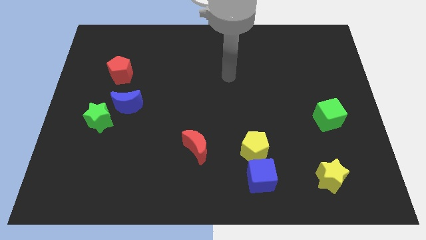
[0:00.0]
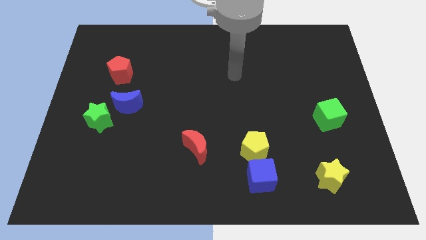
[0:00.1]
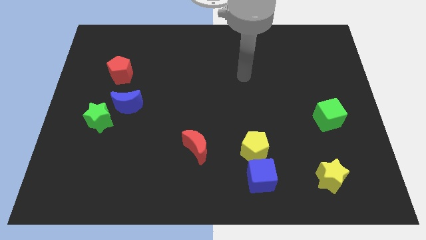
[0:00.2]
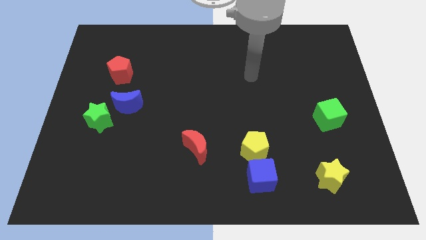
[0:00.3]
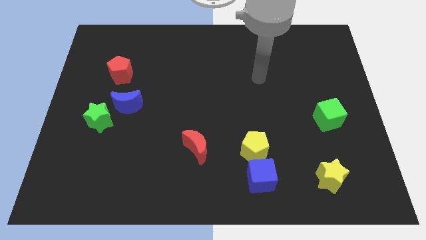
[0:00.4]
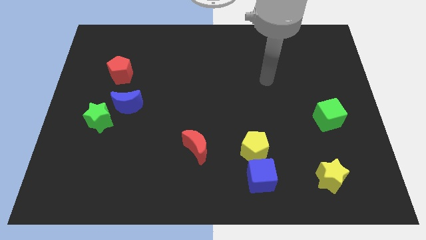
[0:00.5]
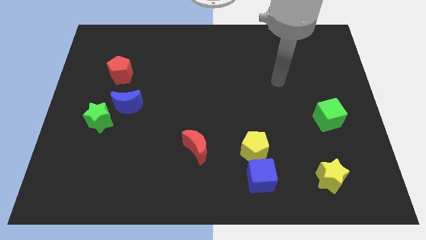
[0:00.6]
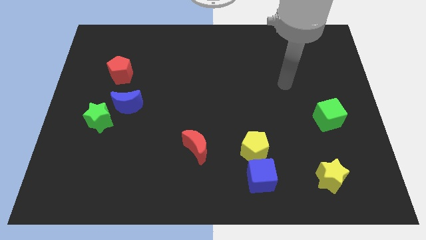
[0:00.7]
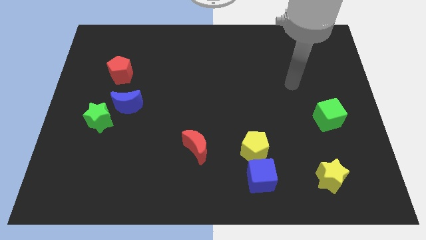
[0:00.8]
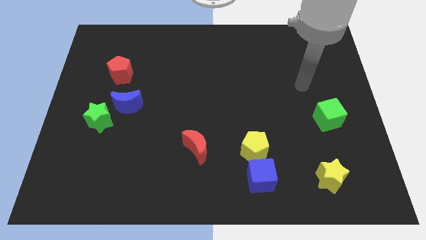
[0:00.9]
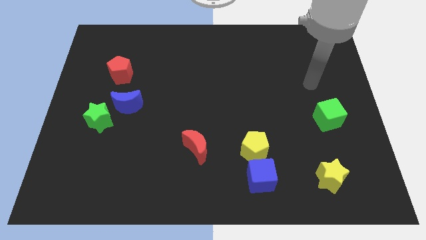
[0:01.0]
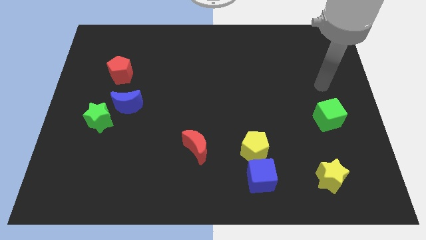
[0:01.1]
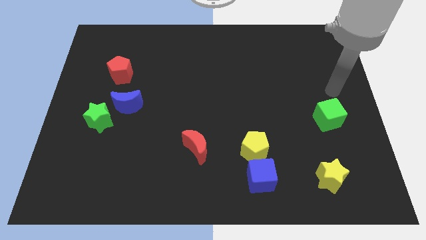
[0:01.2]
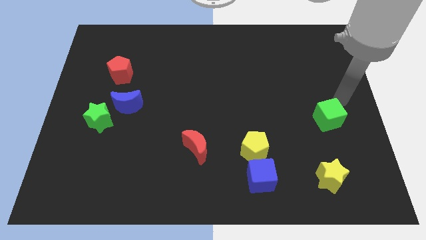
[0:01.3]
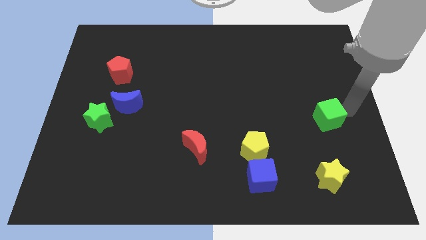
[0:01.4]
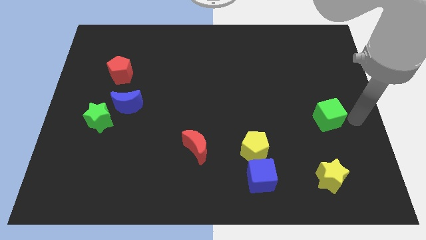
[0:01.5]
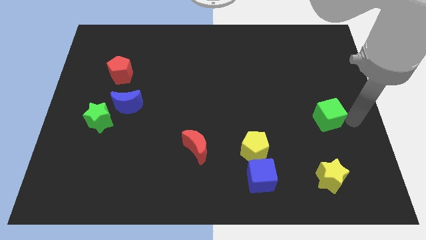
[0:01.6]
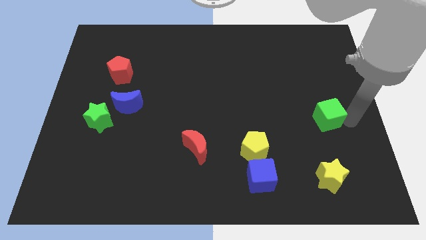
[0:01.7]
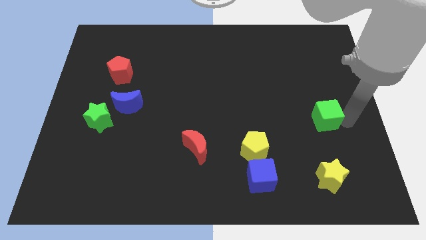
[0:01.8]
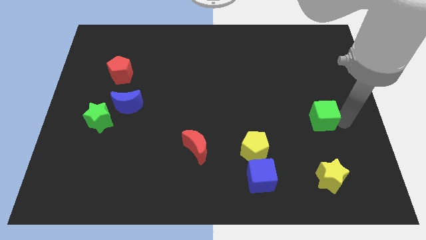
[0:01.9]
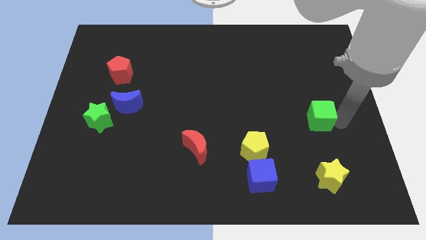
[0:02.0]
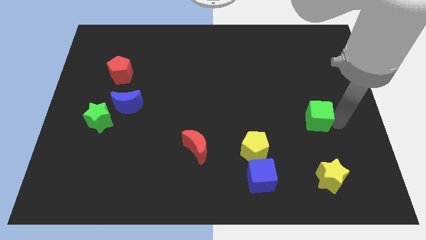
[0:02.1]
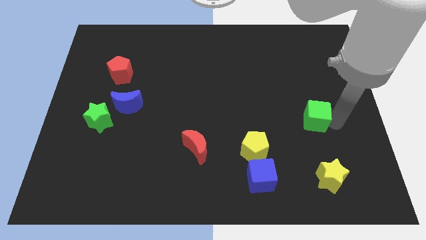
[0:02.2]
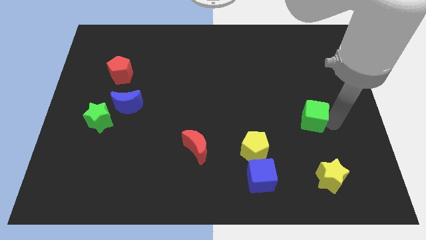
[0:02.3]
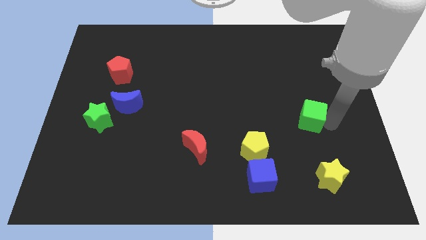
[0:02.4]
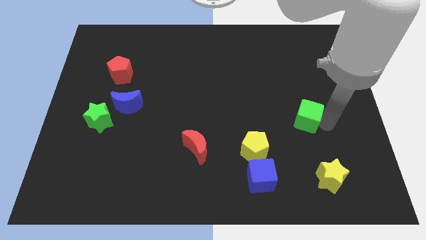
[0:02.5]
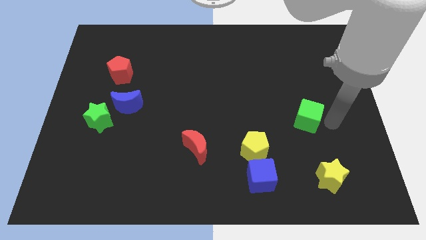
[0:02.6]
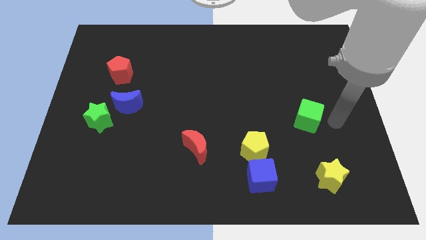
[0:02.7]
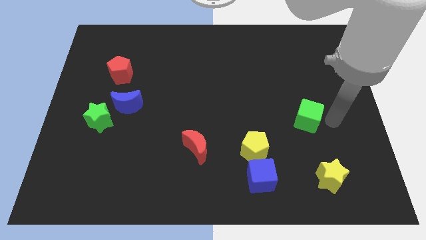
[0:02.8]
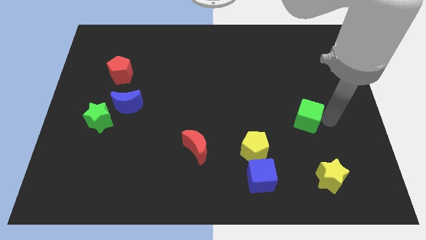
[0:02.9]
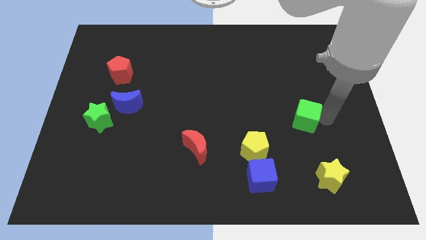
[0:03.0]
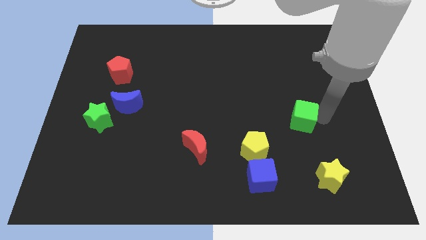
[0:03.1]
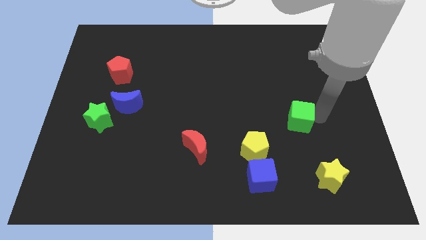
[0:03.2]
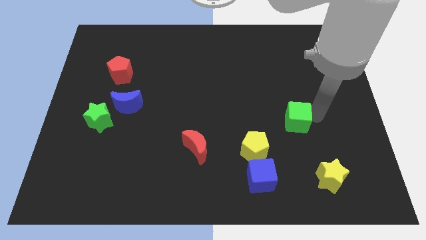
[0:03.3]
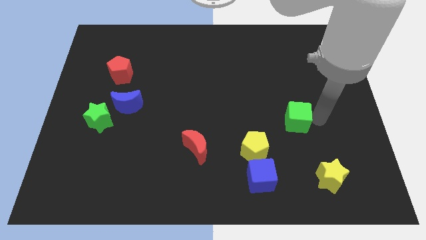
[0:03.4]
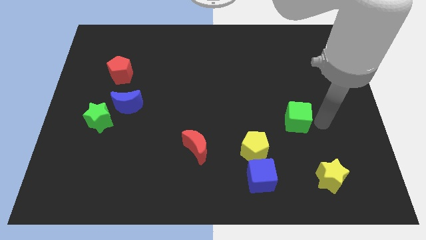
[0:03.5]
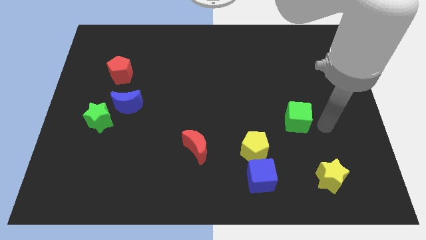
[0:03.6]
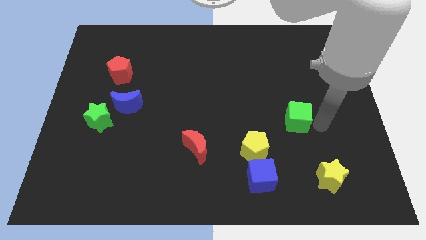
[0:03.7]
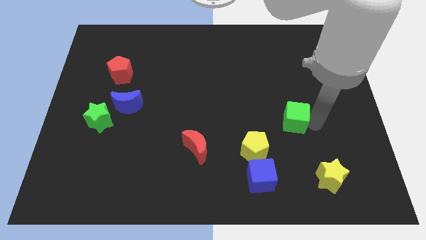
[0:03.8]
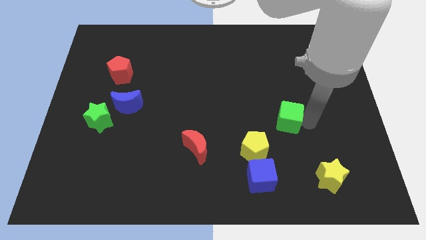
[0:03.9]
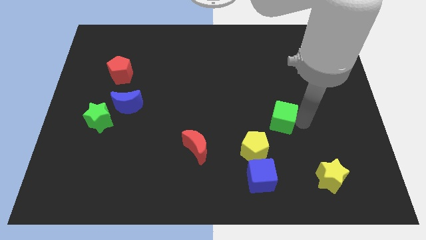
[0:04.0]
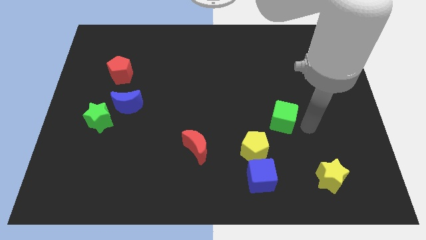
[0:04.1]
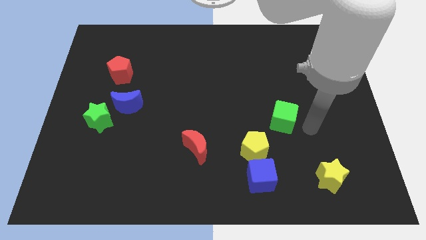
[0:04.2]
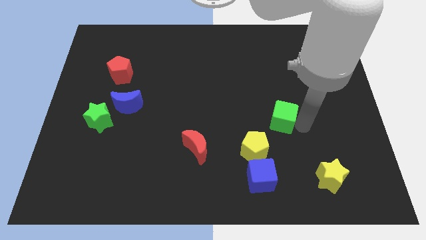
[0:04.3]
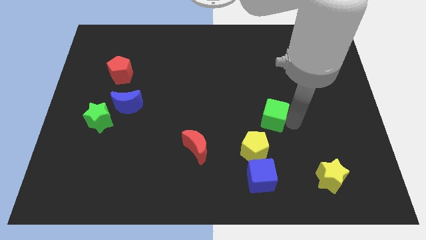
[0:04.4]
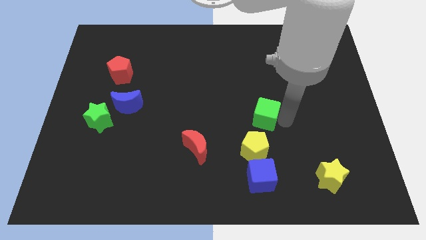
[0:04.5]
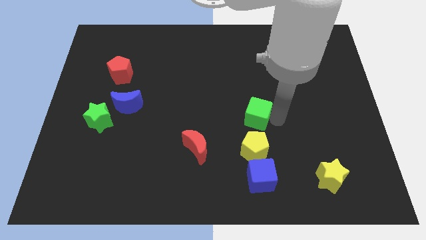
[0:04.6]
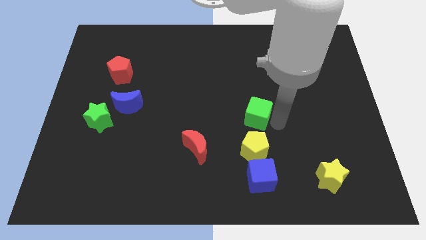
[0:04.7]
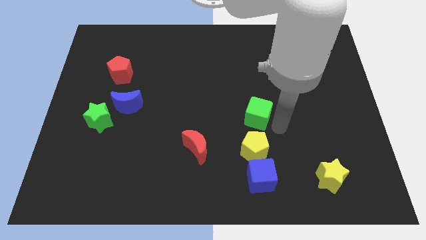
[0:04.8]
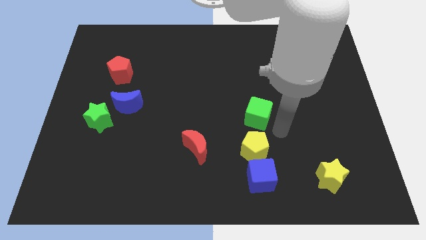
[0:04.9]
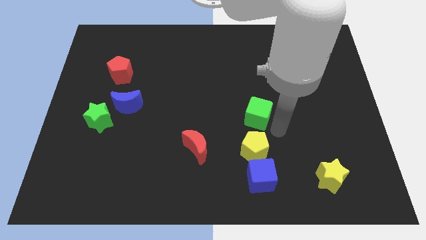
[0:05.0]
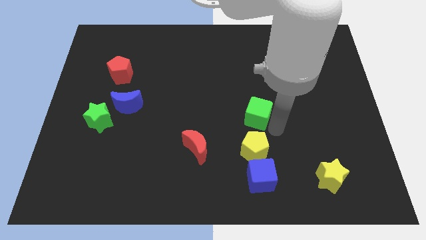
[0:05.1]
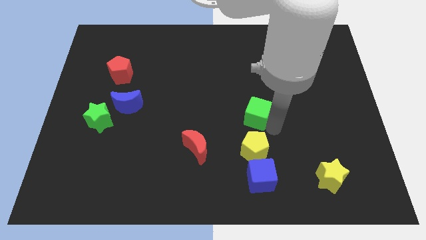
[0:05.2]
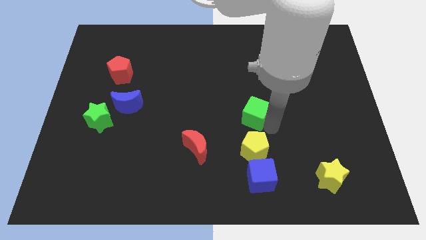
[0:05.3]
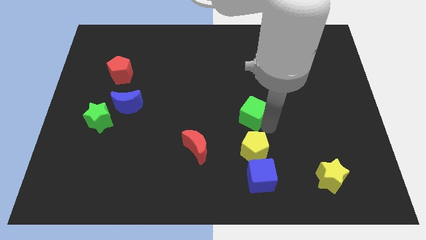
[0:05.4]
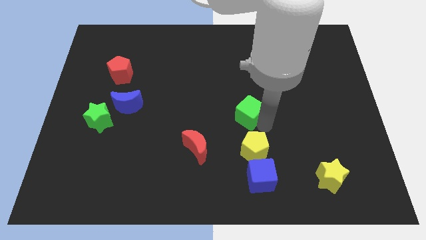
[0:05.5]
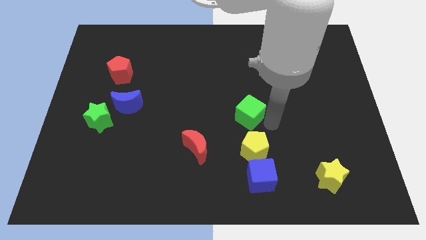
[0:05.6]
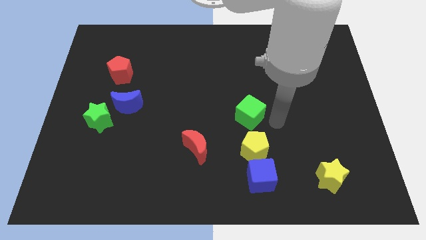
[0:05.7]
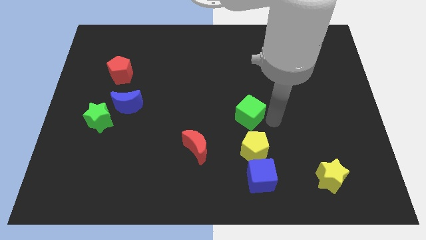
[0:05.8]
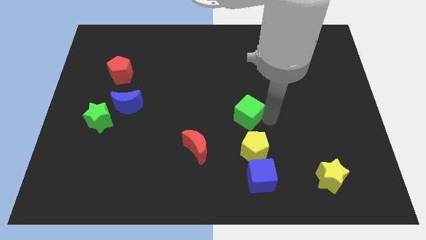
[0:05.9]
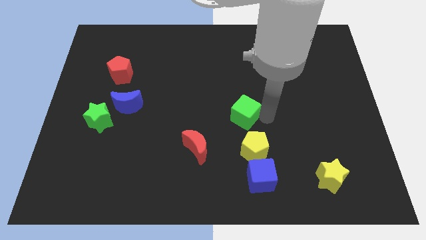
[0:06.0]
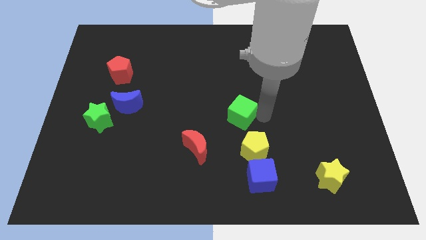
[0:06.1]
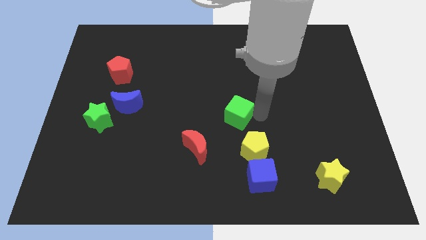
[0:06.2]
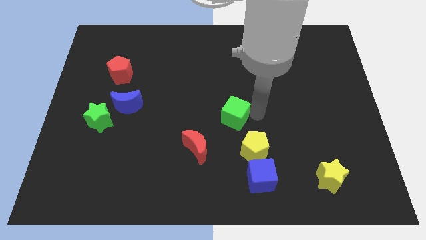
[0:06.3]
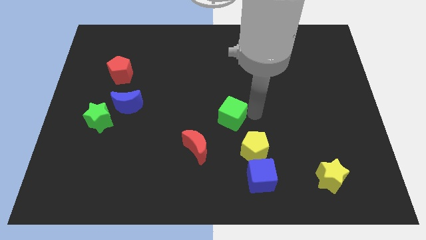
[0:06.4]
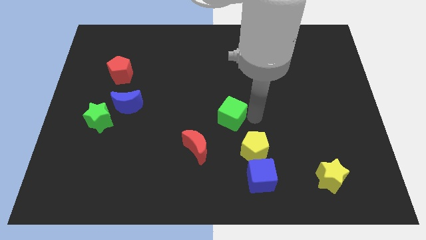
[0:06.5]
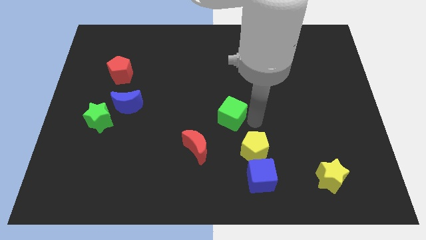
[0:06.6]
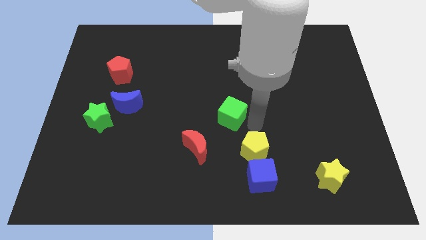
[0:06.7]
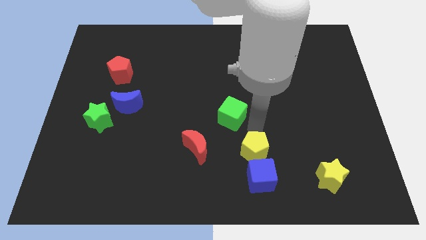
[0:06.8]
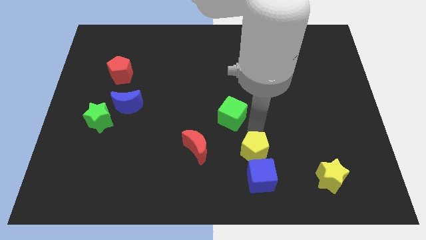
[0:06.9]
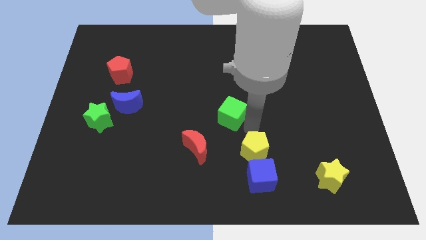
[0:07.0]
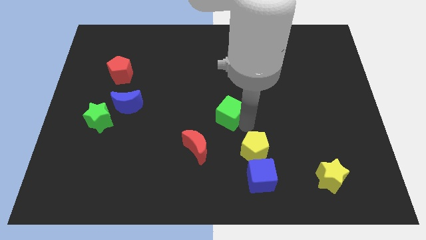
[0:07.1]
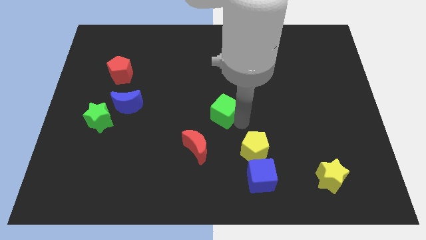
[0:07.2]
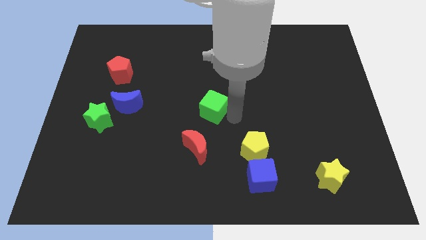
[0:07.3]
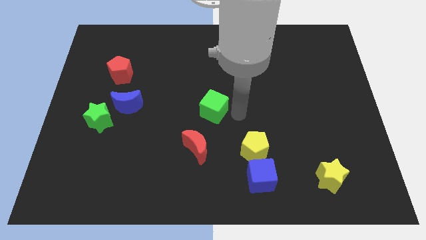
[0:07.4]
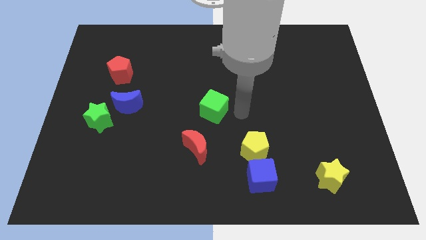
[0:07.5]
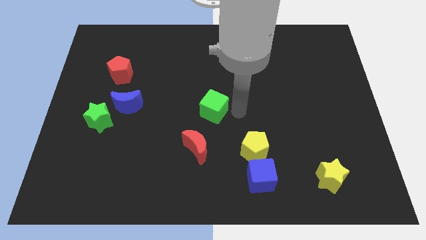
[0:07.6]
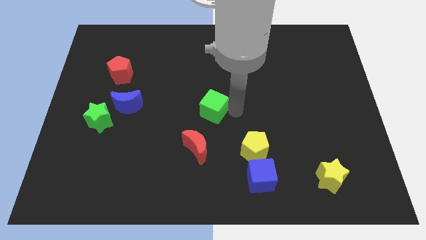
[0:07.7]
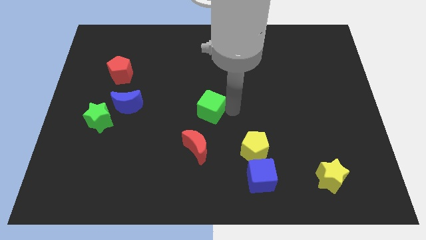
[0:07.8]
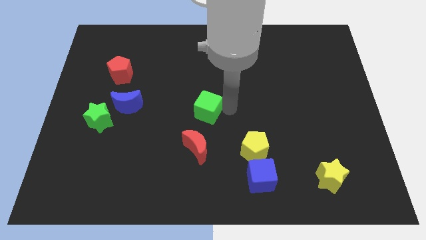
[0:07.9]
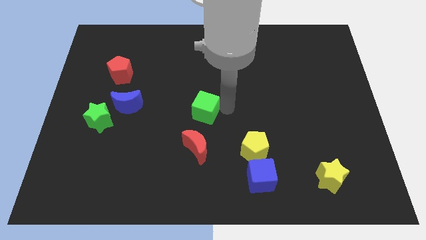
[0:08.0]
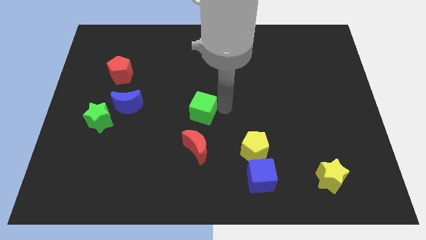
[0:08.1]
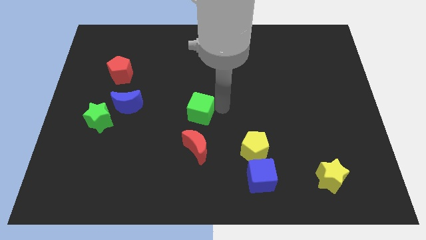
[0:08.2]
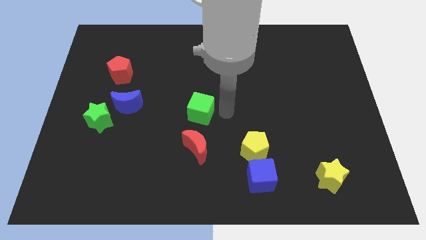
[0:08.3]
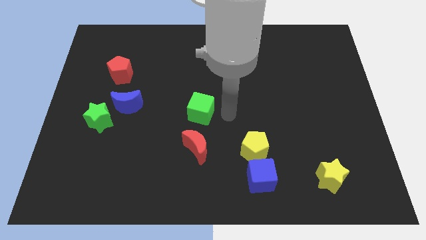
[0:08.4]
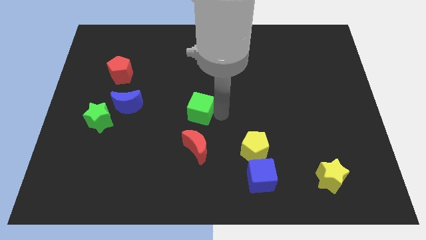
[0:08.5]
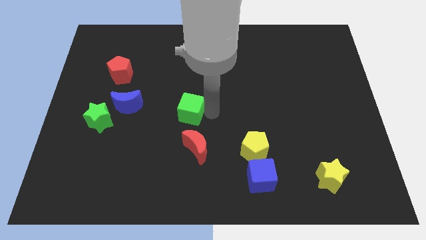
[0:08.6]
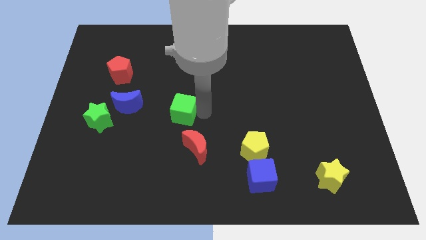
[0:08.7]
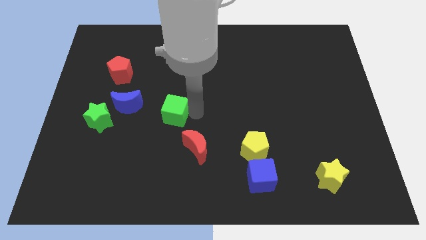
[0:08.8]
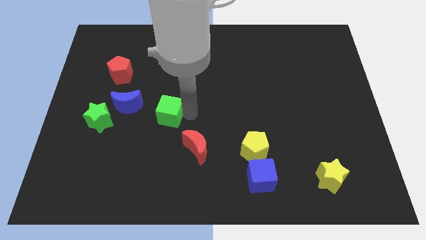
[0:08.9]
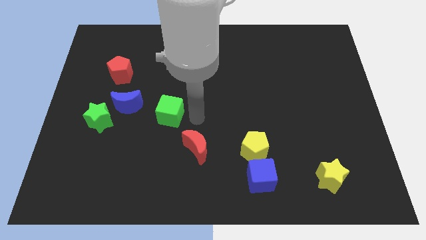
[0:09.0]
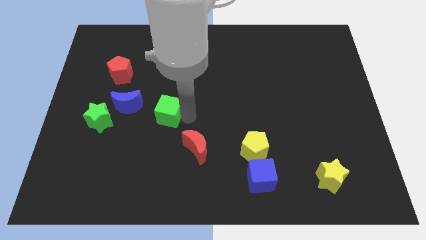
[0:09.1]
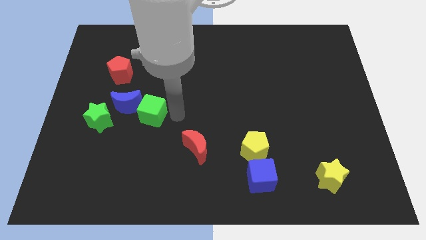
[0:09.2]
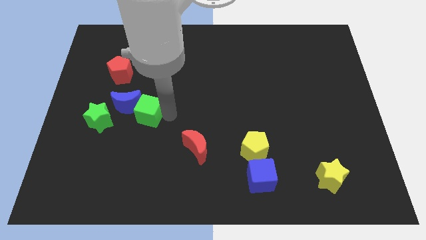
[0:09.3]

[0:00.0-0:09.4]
move the green cube next to the blue moon
